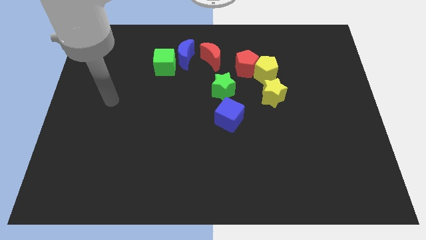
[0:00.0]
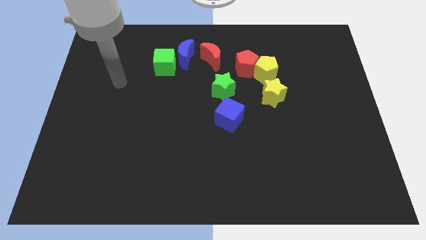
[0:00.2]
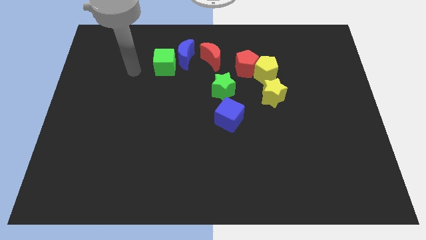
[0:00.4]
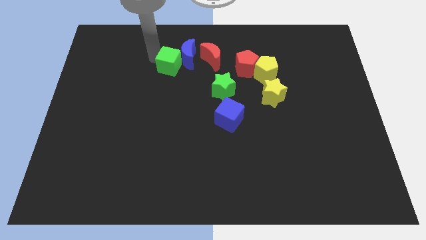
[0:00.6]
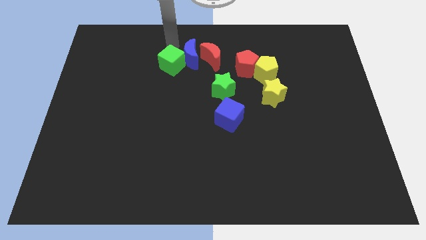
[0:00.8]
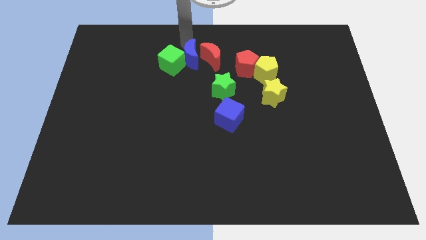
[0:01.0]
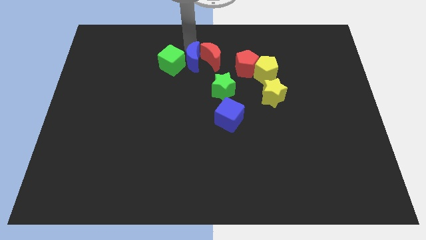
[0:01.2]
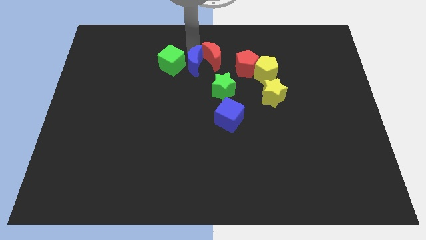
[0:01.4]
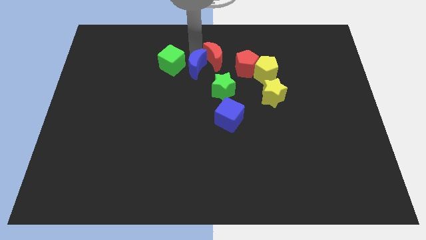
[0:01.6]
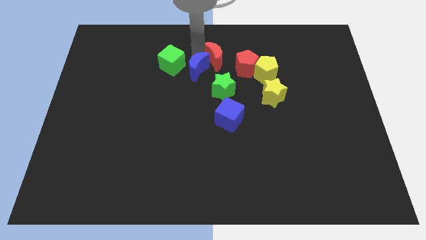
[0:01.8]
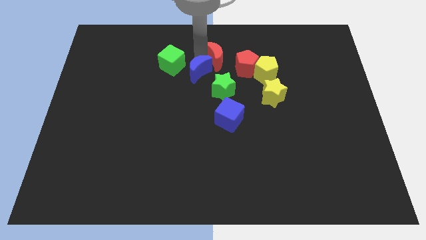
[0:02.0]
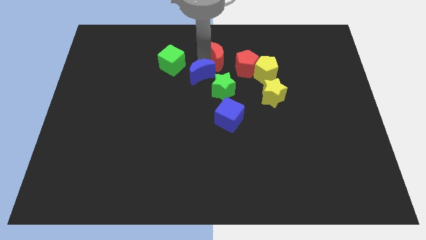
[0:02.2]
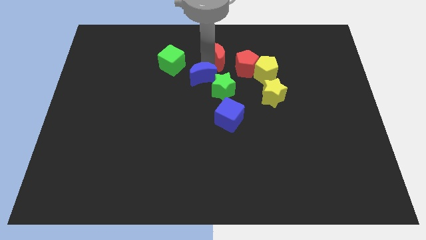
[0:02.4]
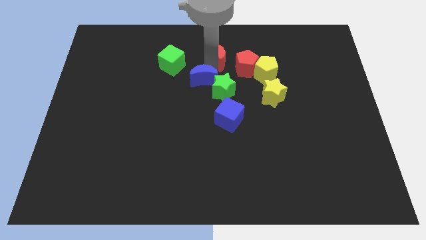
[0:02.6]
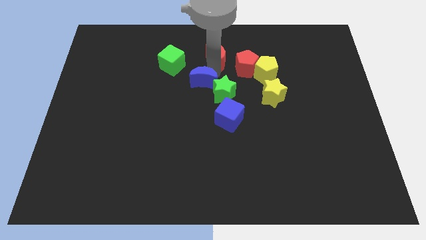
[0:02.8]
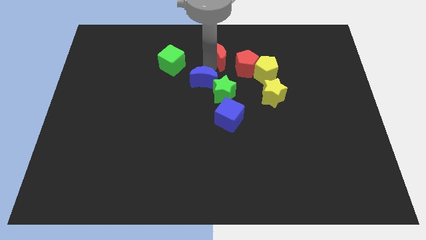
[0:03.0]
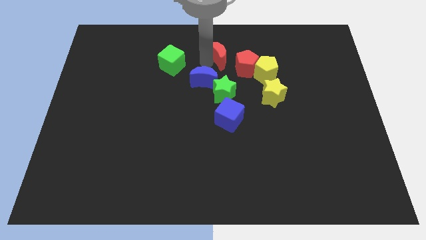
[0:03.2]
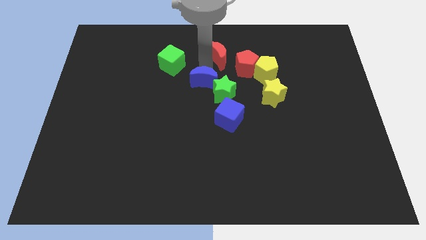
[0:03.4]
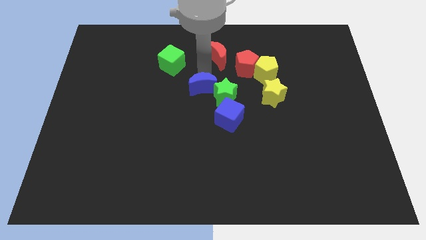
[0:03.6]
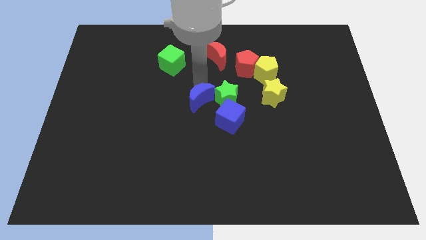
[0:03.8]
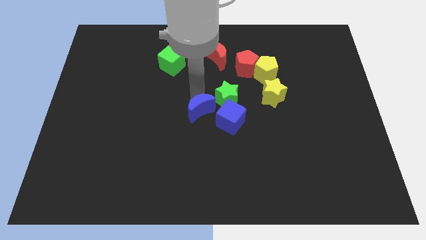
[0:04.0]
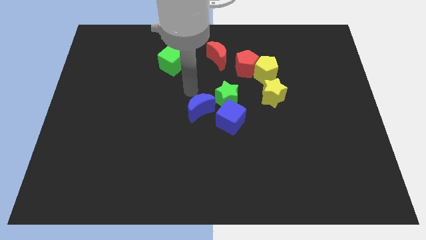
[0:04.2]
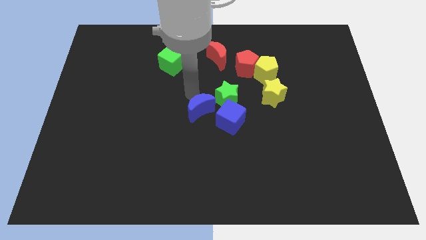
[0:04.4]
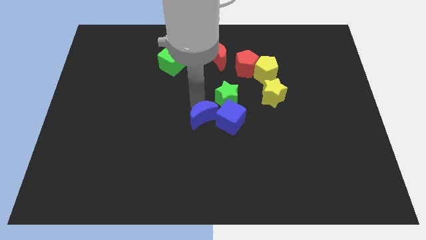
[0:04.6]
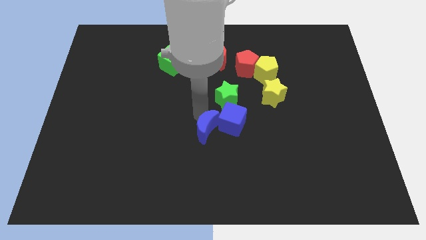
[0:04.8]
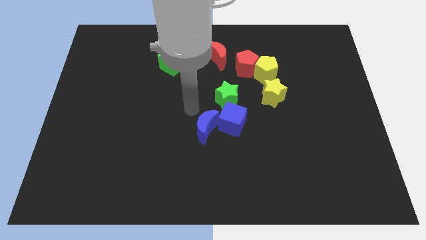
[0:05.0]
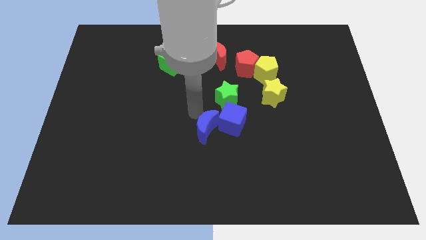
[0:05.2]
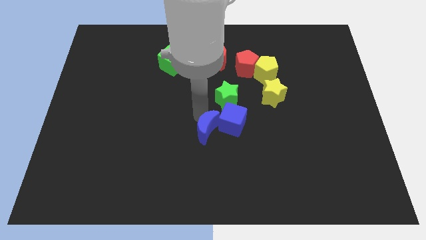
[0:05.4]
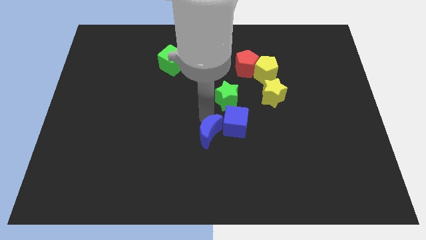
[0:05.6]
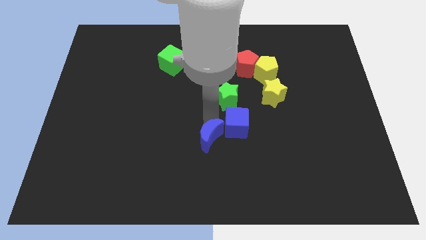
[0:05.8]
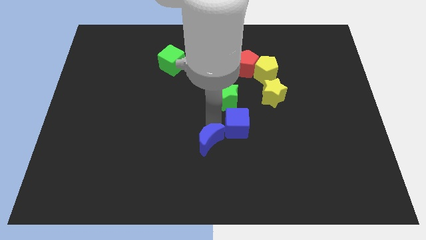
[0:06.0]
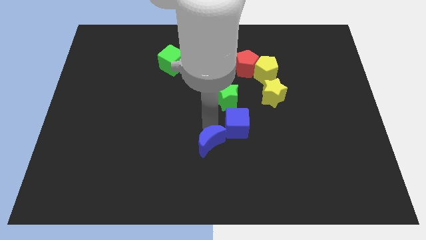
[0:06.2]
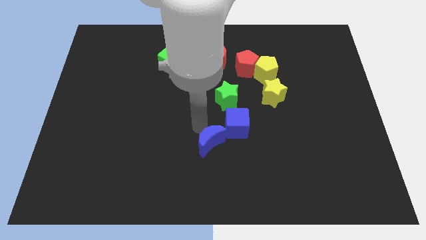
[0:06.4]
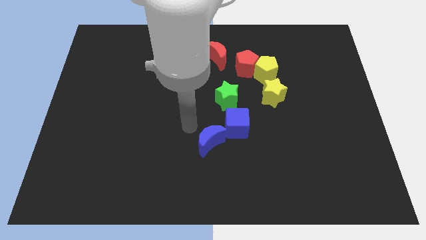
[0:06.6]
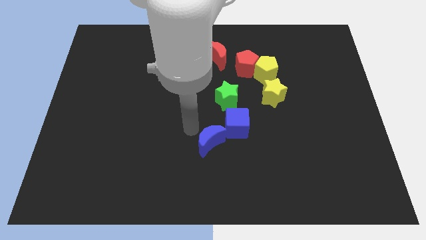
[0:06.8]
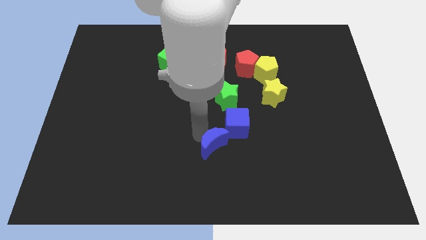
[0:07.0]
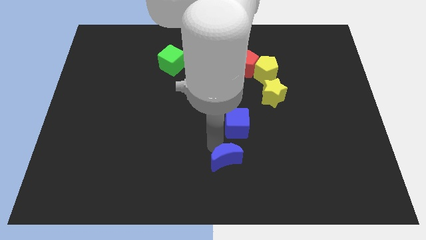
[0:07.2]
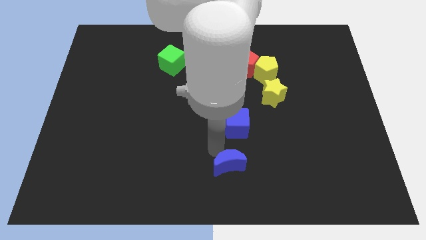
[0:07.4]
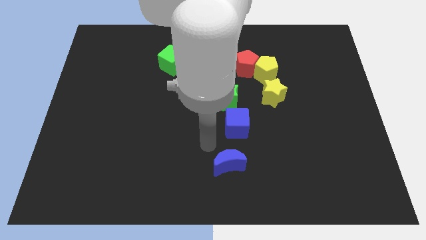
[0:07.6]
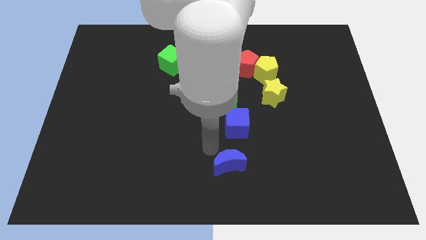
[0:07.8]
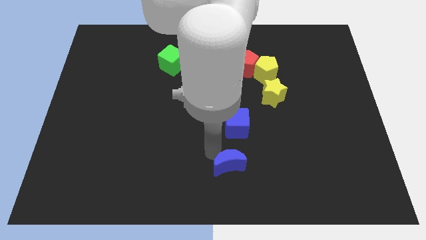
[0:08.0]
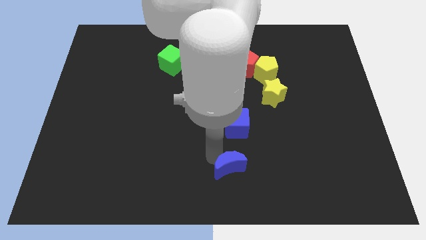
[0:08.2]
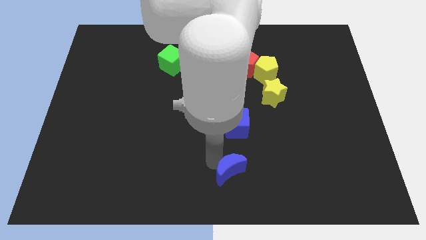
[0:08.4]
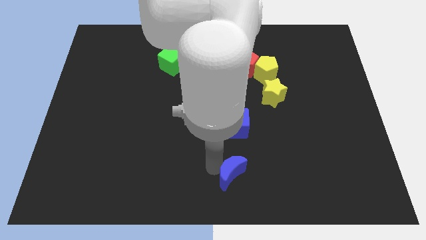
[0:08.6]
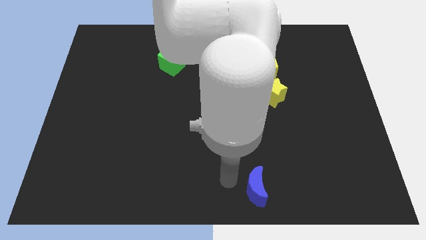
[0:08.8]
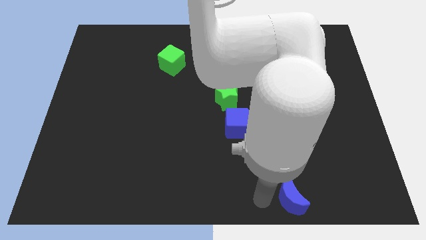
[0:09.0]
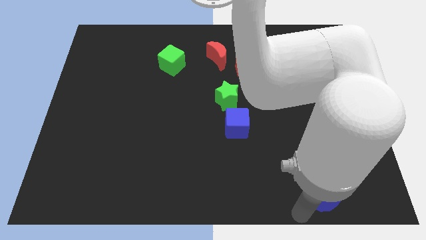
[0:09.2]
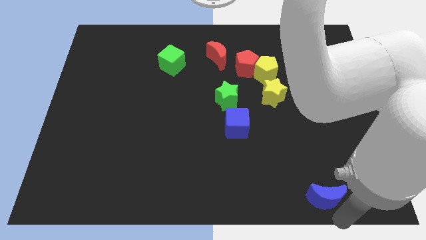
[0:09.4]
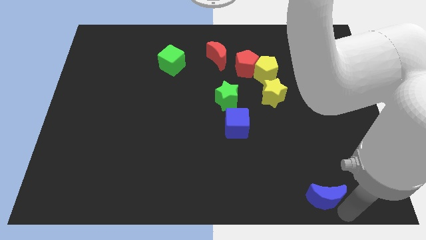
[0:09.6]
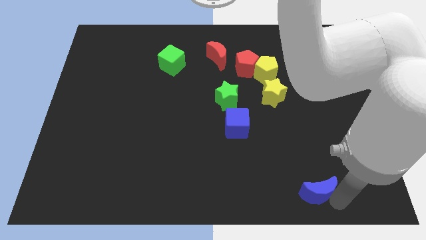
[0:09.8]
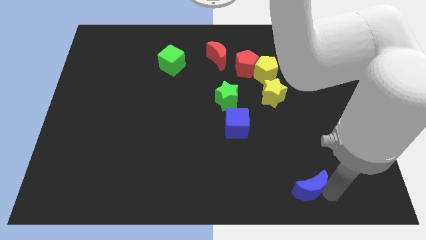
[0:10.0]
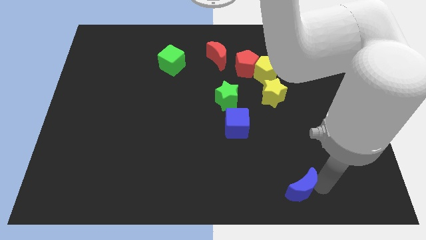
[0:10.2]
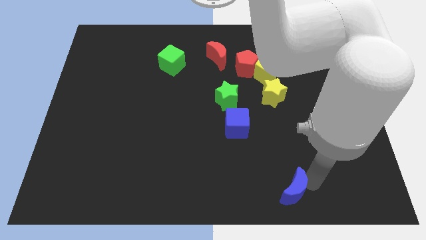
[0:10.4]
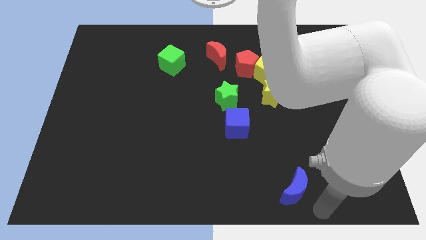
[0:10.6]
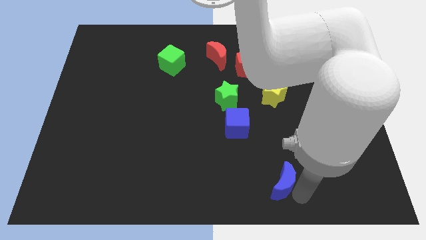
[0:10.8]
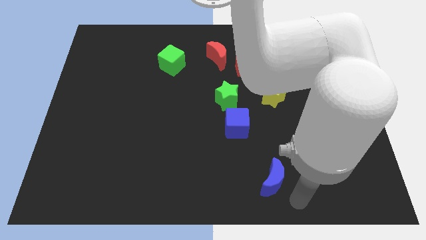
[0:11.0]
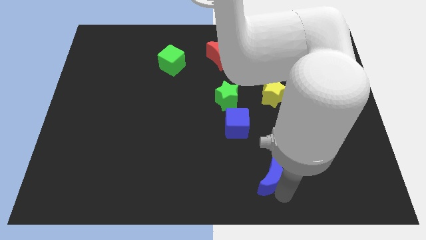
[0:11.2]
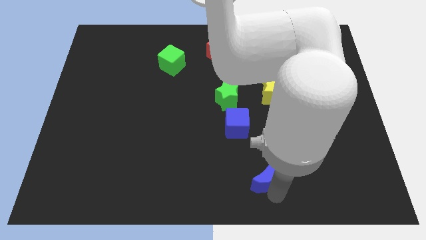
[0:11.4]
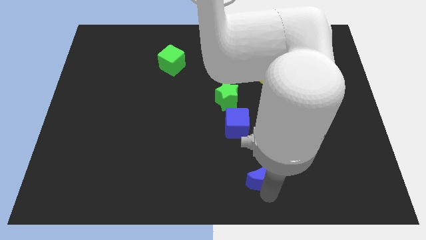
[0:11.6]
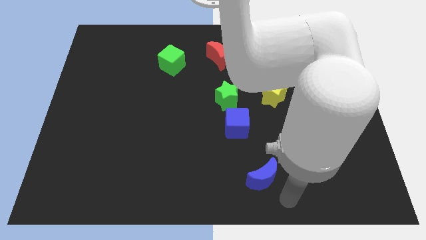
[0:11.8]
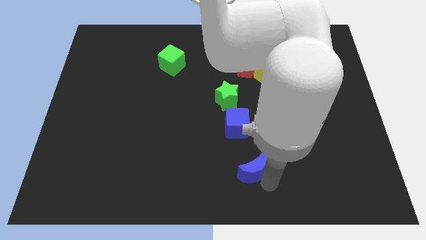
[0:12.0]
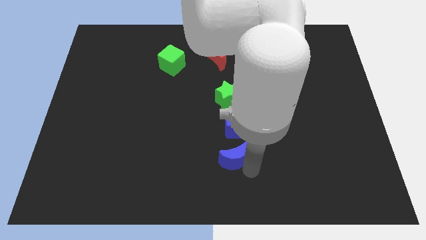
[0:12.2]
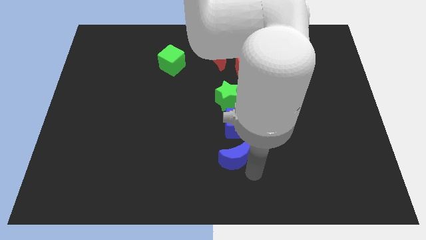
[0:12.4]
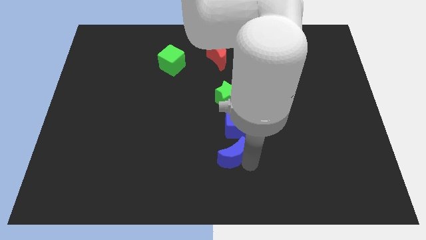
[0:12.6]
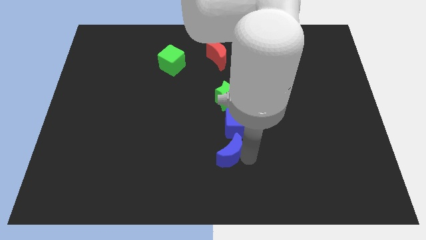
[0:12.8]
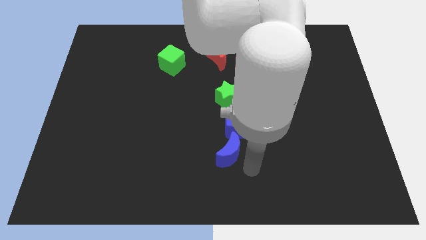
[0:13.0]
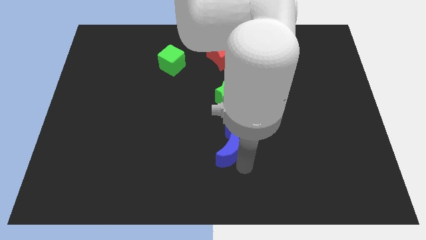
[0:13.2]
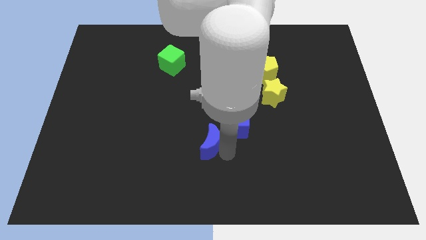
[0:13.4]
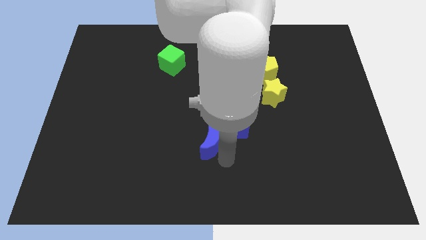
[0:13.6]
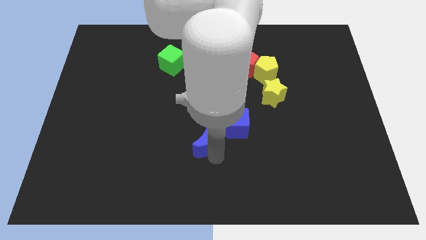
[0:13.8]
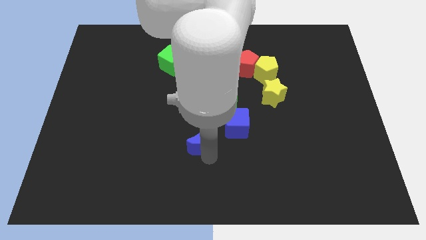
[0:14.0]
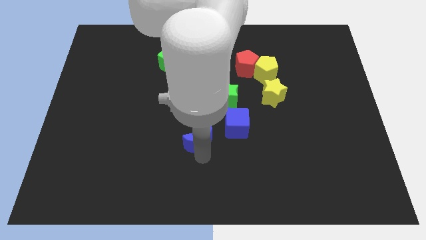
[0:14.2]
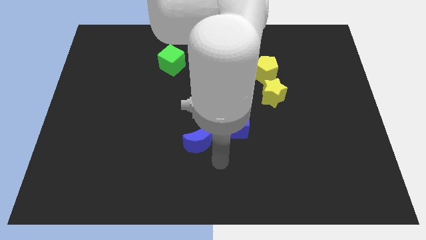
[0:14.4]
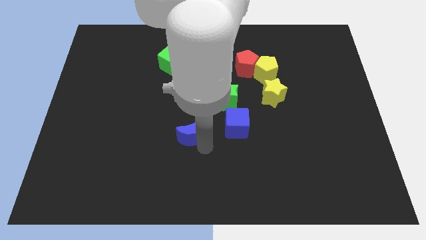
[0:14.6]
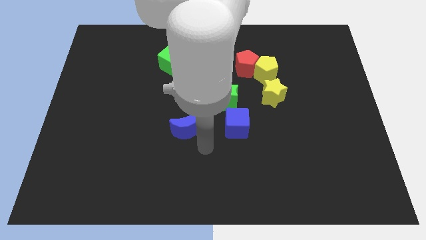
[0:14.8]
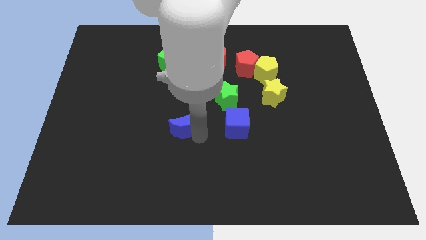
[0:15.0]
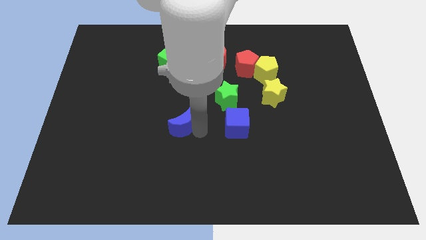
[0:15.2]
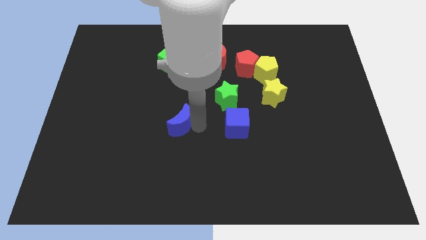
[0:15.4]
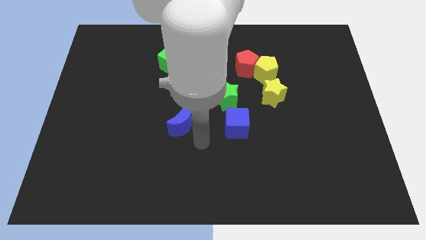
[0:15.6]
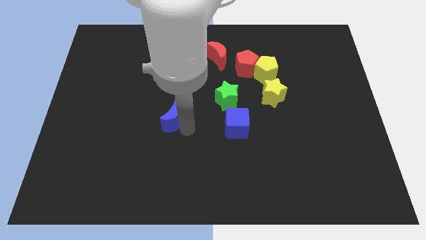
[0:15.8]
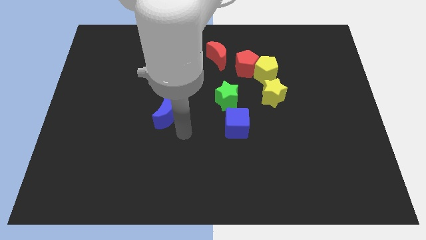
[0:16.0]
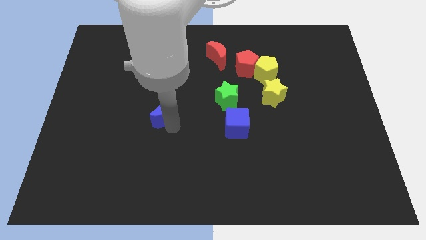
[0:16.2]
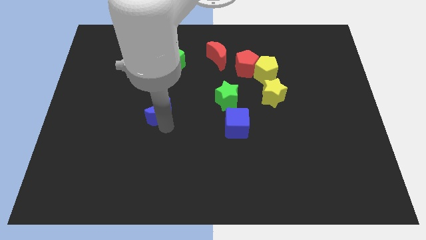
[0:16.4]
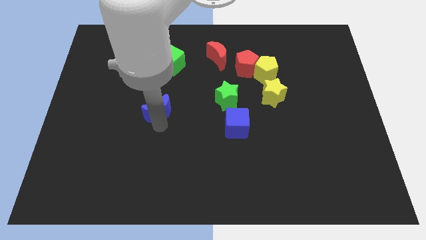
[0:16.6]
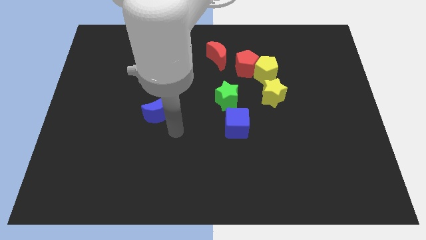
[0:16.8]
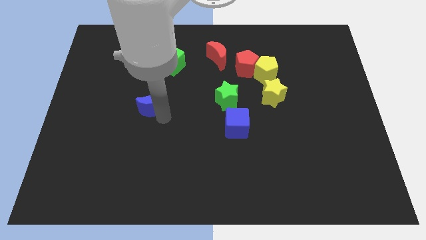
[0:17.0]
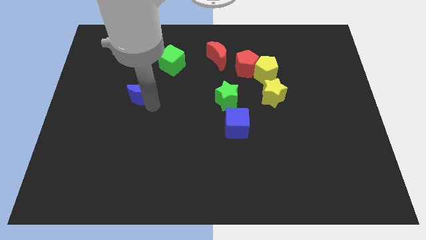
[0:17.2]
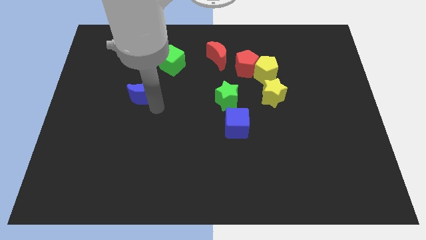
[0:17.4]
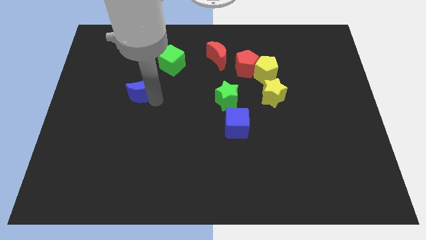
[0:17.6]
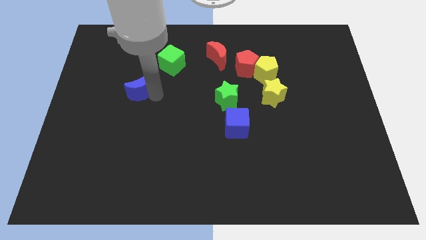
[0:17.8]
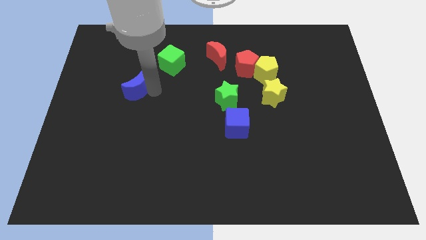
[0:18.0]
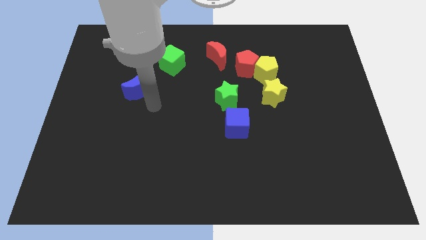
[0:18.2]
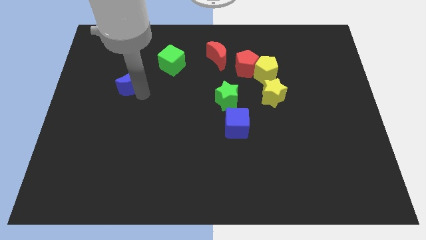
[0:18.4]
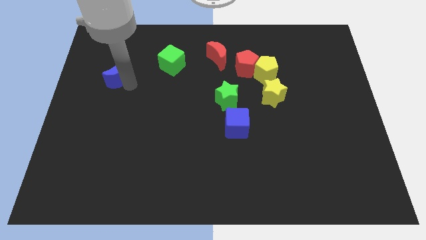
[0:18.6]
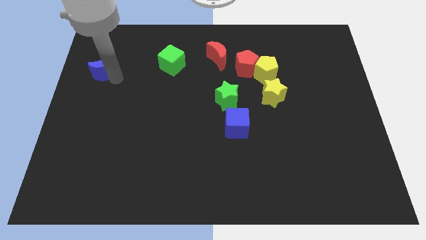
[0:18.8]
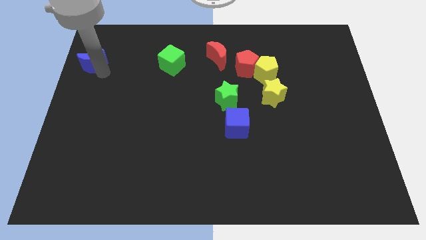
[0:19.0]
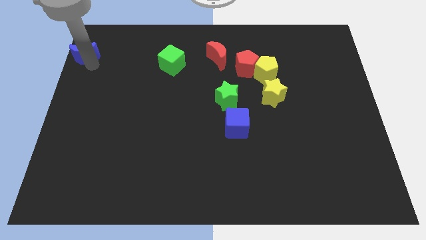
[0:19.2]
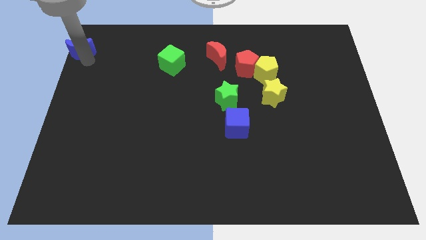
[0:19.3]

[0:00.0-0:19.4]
move the blue moon to the top left
